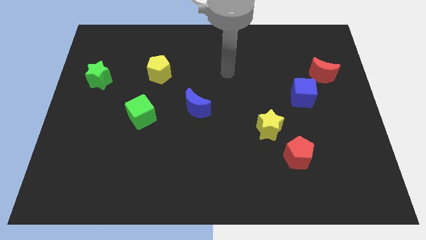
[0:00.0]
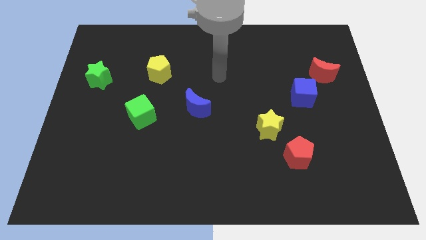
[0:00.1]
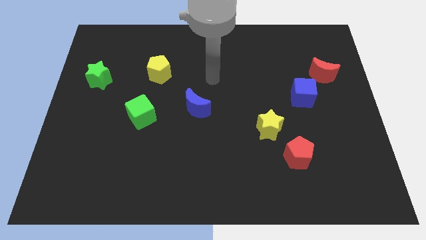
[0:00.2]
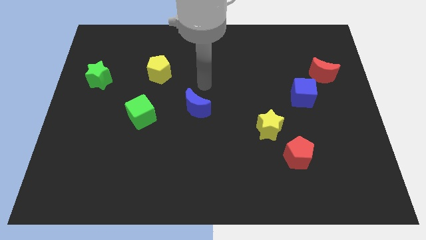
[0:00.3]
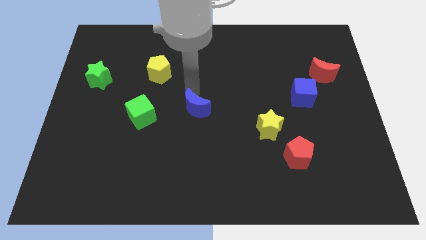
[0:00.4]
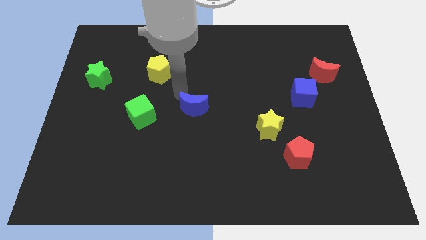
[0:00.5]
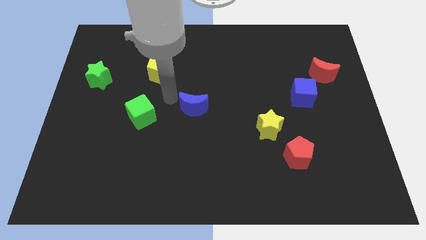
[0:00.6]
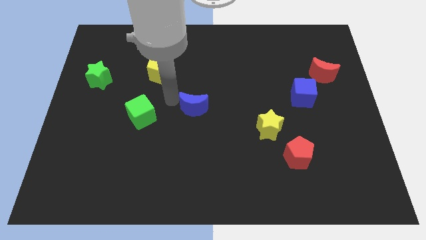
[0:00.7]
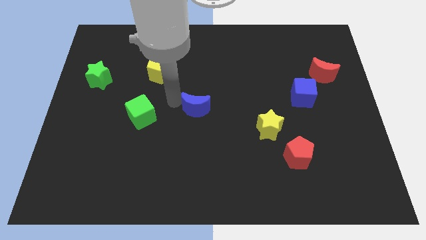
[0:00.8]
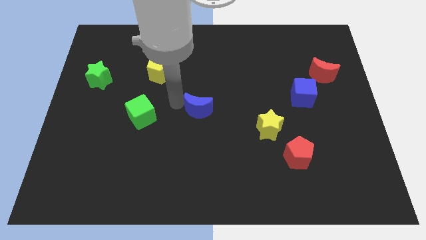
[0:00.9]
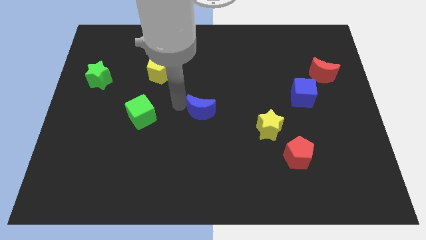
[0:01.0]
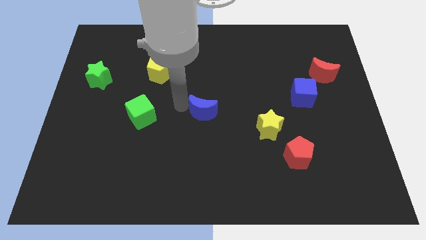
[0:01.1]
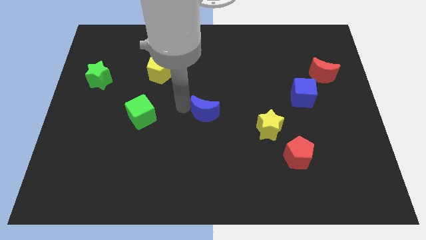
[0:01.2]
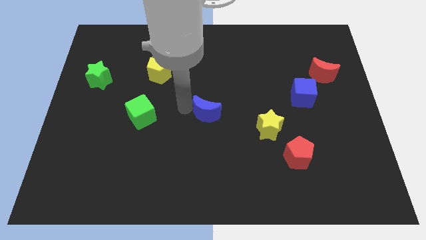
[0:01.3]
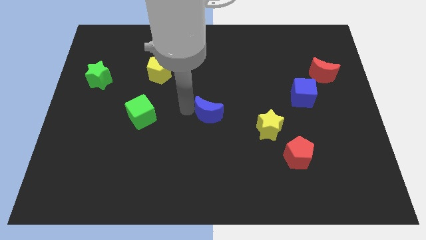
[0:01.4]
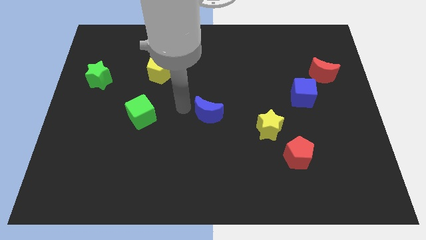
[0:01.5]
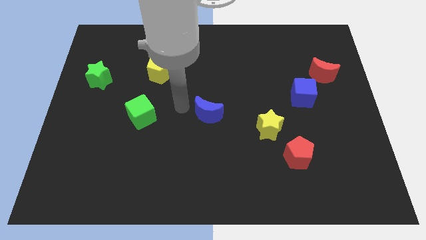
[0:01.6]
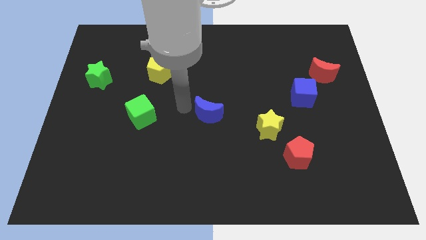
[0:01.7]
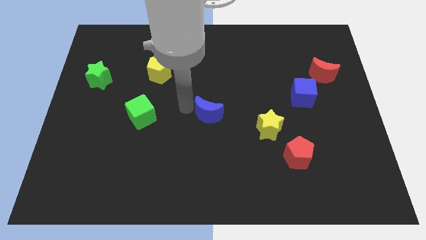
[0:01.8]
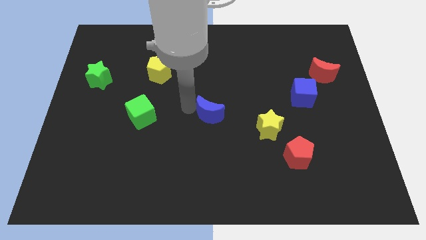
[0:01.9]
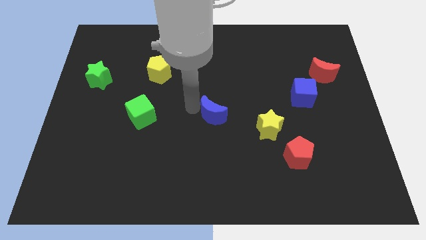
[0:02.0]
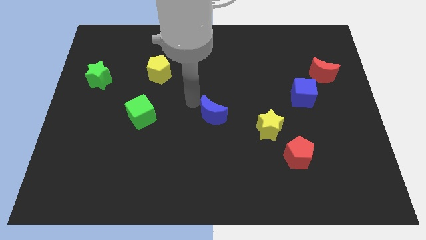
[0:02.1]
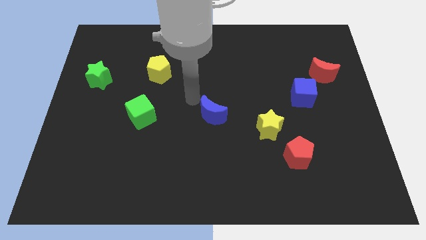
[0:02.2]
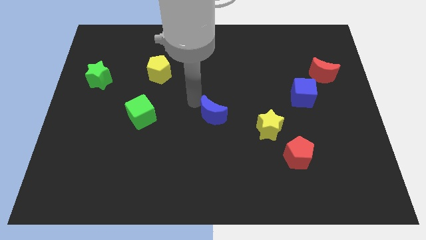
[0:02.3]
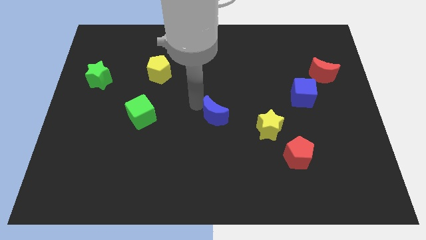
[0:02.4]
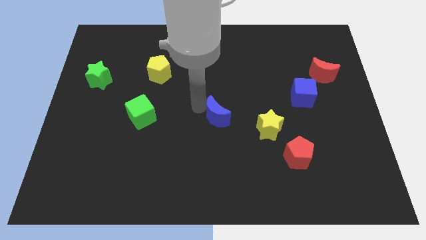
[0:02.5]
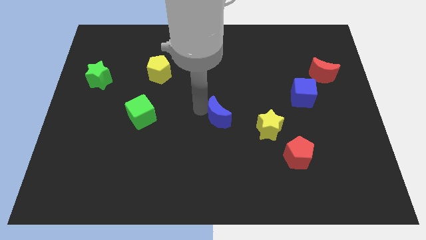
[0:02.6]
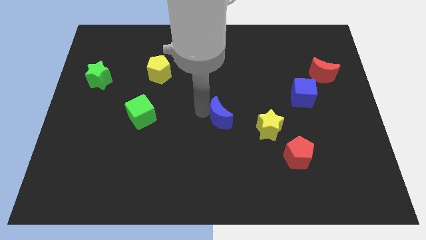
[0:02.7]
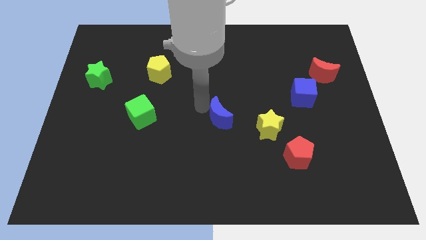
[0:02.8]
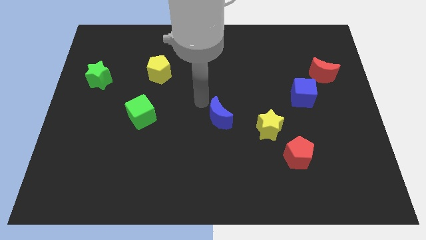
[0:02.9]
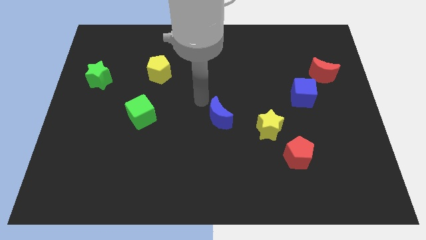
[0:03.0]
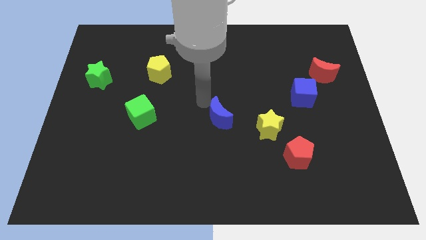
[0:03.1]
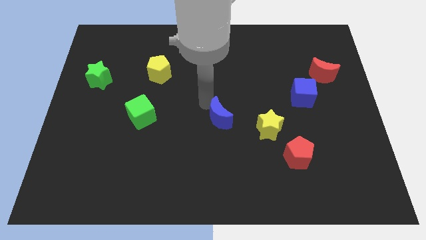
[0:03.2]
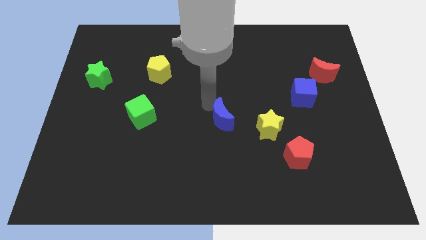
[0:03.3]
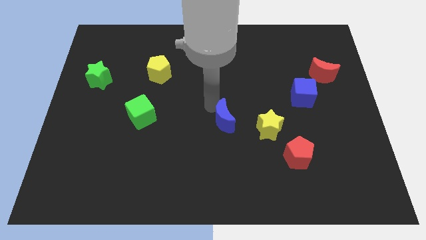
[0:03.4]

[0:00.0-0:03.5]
push the blue moon a bit down and right

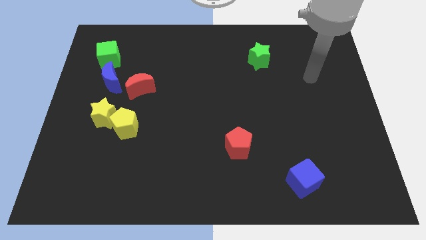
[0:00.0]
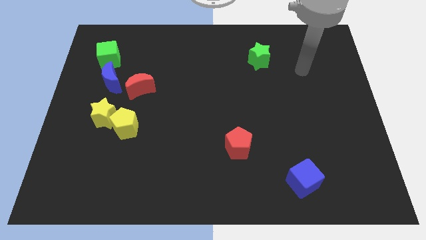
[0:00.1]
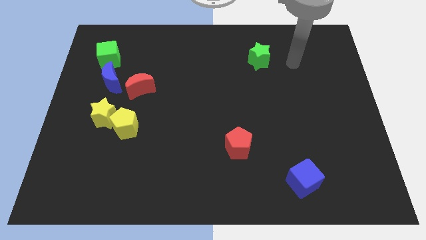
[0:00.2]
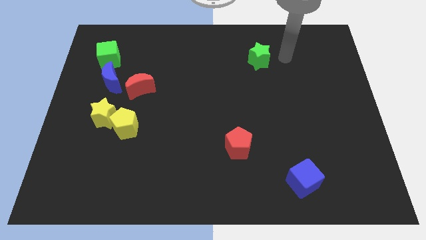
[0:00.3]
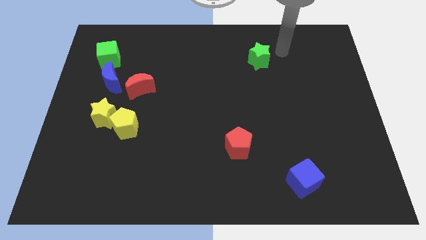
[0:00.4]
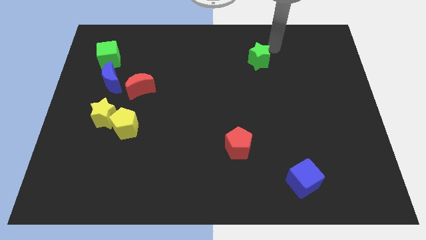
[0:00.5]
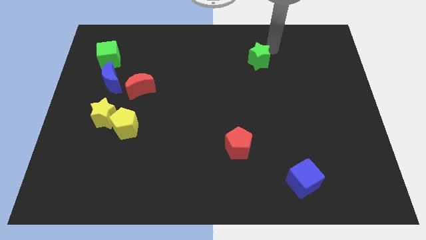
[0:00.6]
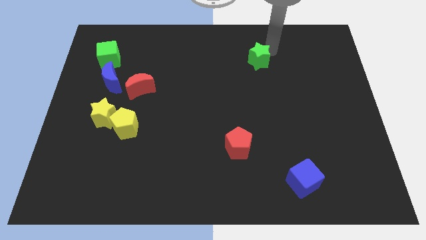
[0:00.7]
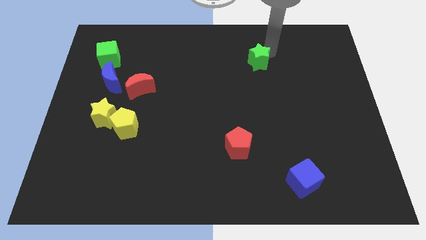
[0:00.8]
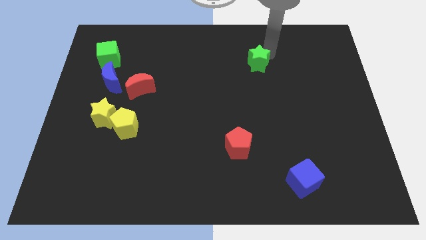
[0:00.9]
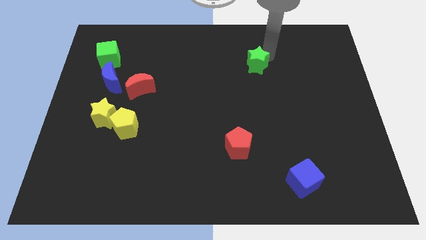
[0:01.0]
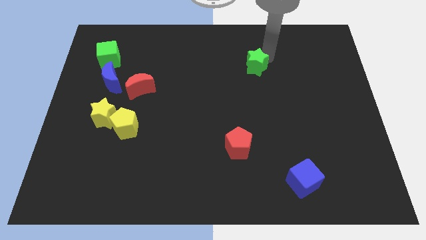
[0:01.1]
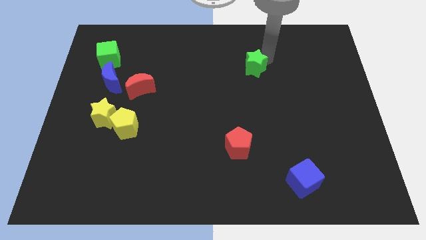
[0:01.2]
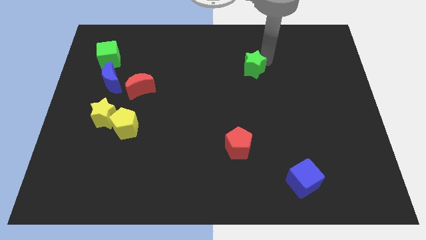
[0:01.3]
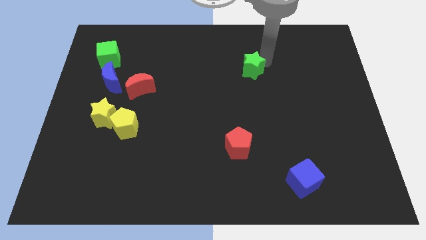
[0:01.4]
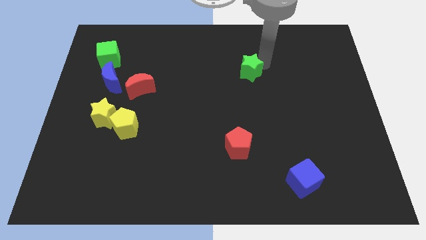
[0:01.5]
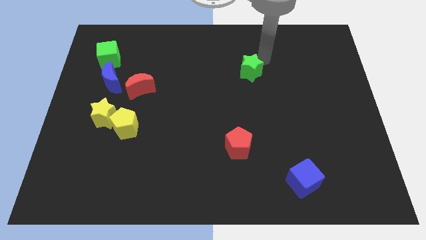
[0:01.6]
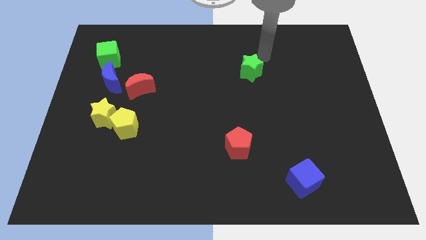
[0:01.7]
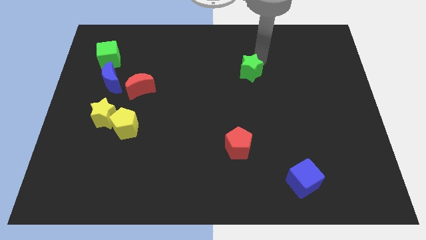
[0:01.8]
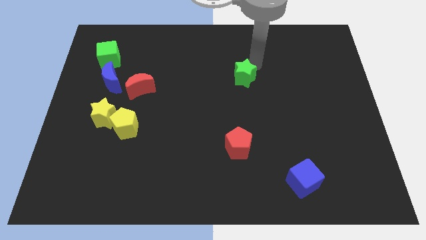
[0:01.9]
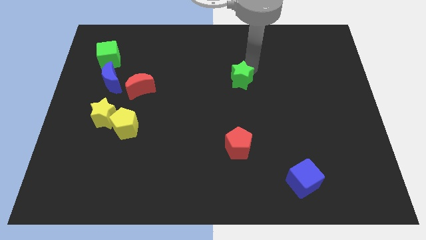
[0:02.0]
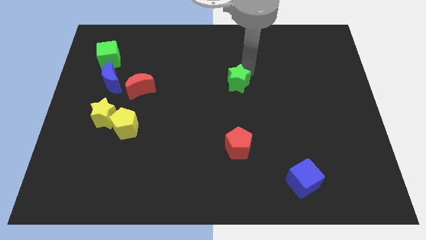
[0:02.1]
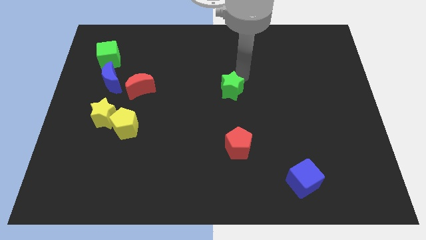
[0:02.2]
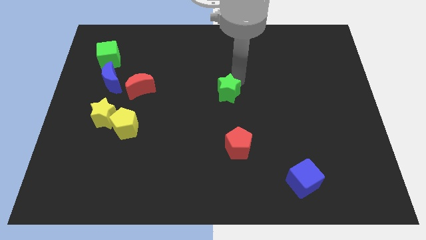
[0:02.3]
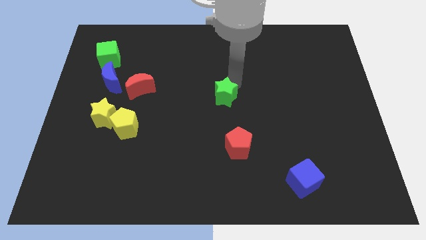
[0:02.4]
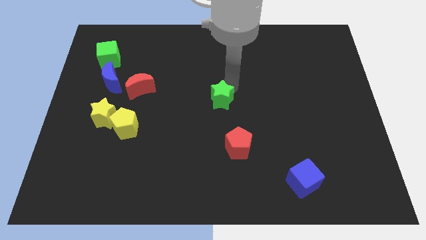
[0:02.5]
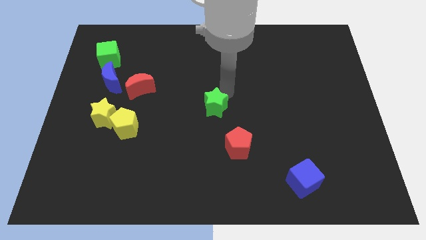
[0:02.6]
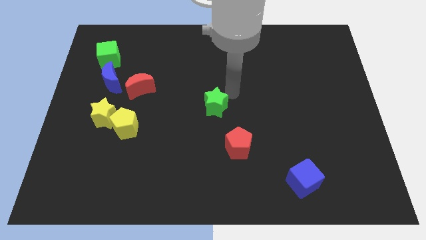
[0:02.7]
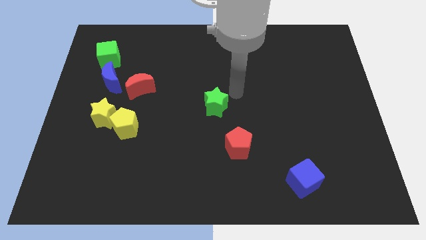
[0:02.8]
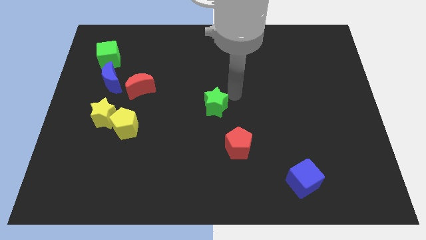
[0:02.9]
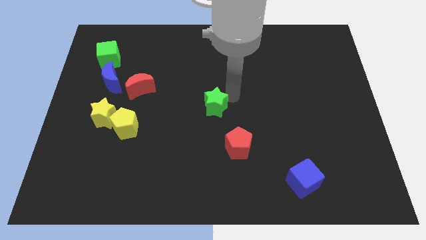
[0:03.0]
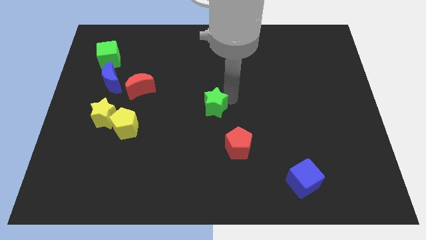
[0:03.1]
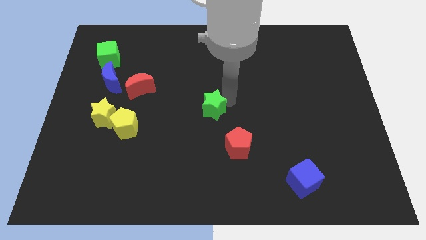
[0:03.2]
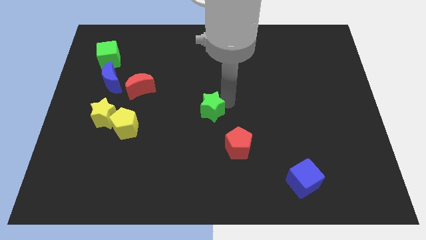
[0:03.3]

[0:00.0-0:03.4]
slide the green star downwards and to the left diagonally

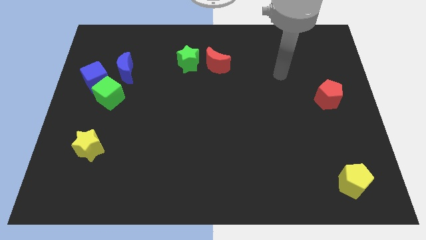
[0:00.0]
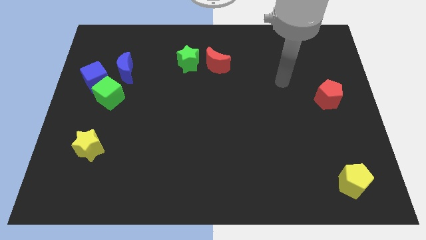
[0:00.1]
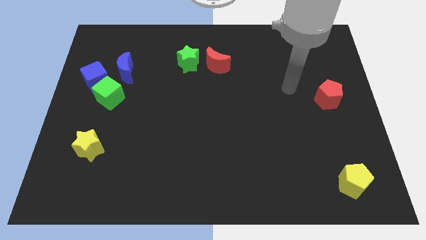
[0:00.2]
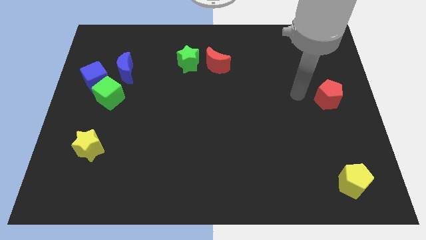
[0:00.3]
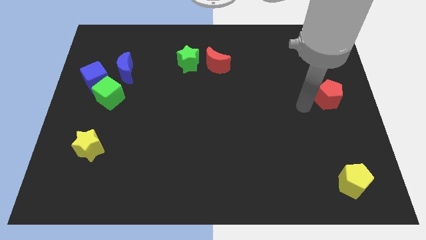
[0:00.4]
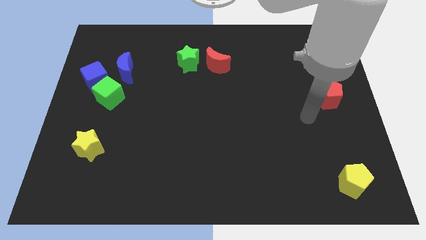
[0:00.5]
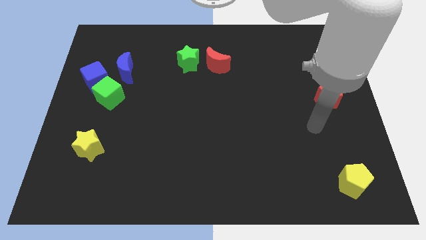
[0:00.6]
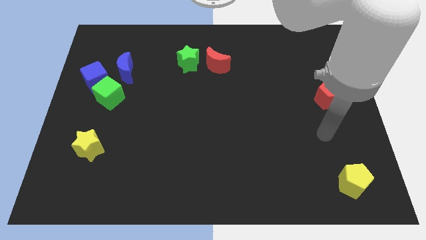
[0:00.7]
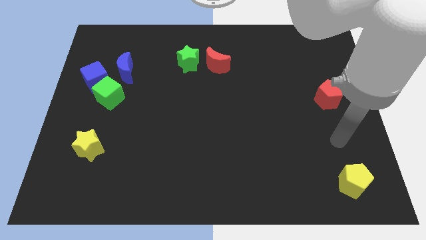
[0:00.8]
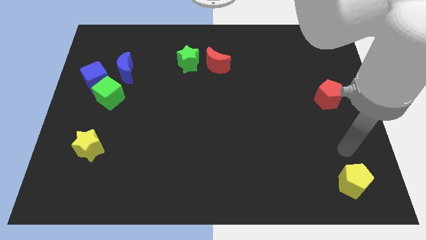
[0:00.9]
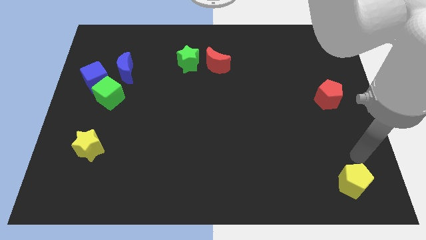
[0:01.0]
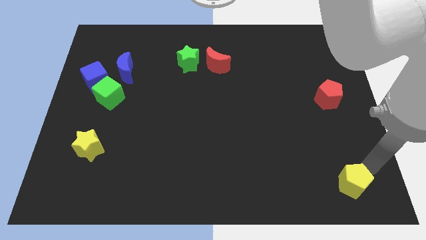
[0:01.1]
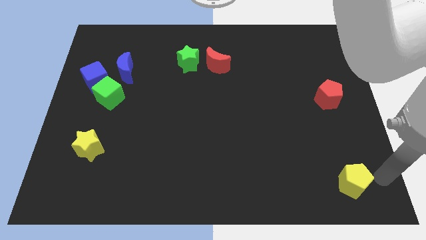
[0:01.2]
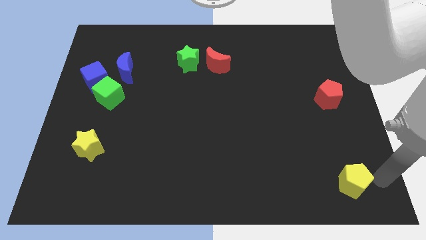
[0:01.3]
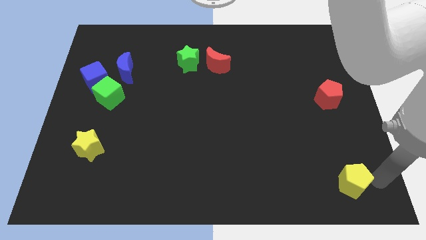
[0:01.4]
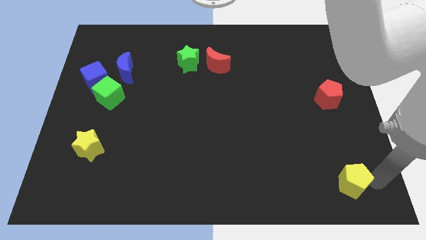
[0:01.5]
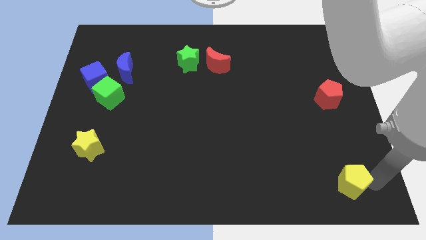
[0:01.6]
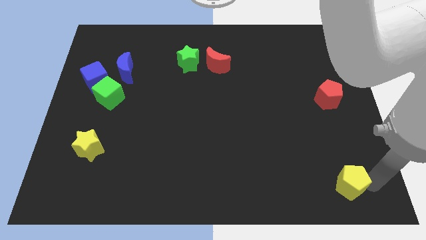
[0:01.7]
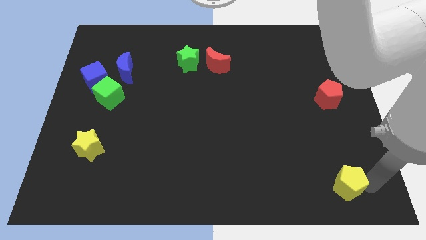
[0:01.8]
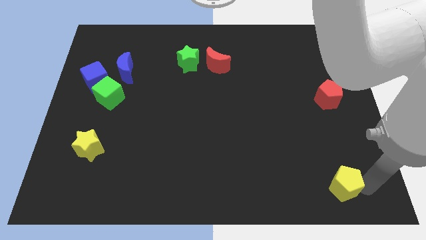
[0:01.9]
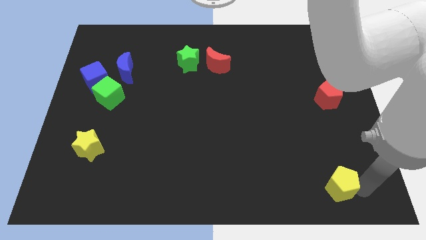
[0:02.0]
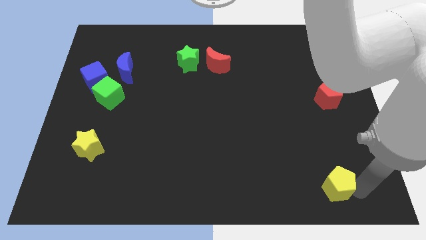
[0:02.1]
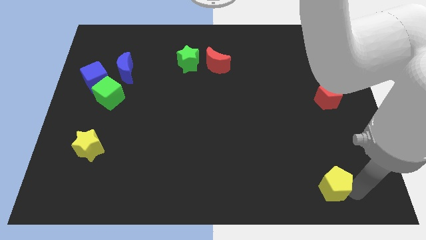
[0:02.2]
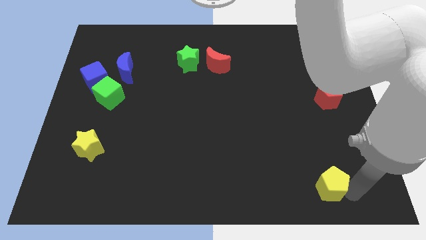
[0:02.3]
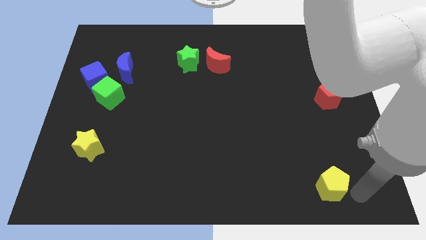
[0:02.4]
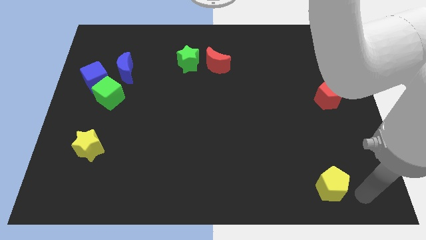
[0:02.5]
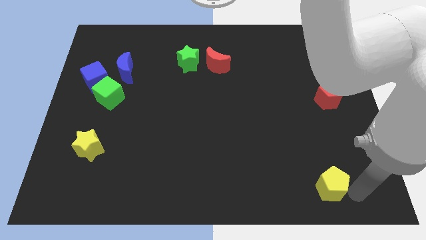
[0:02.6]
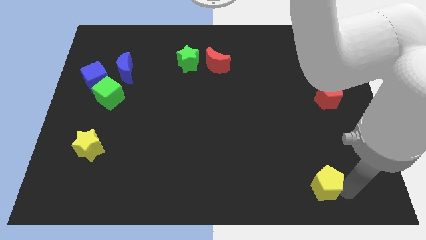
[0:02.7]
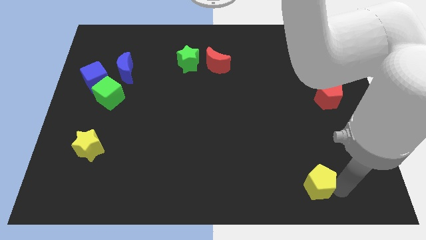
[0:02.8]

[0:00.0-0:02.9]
push the yellow pentagon left slightly
